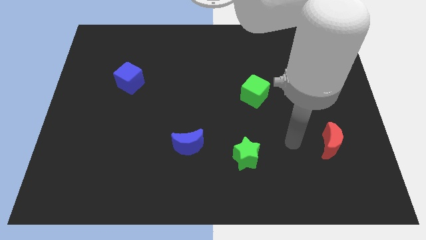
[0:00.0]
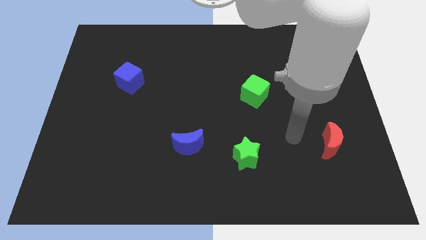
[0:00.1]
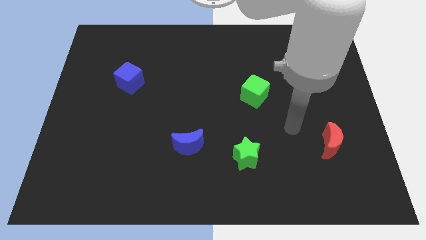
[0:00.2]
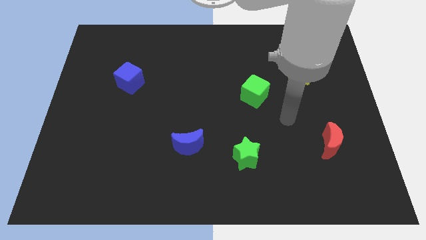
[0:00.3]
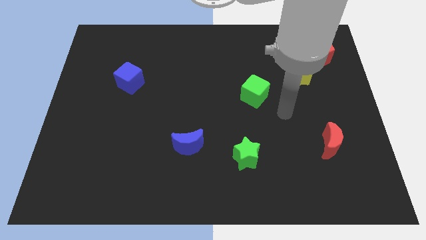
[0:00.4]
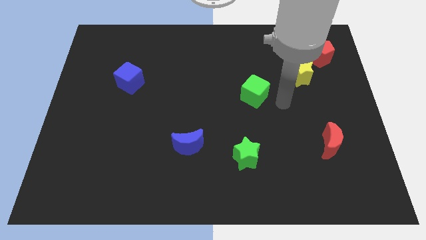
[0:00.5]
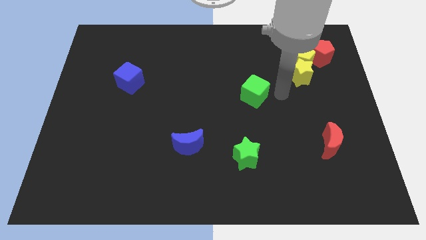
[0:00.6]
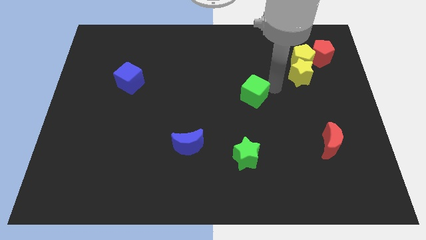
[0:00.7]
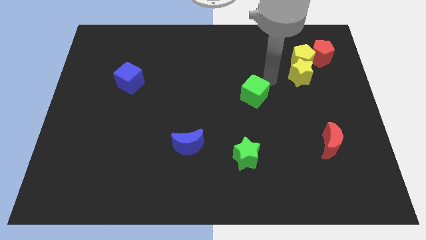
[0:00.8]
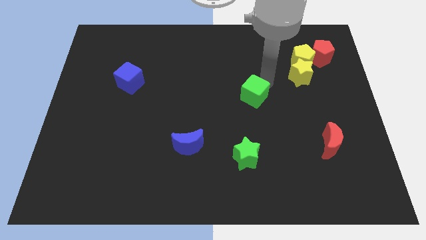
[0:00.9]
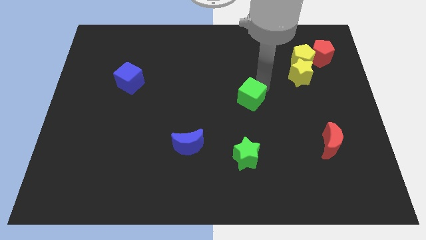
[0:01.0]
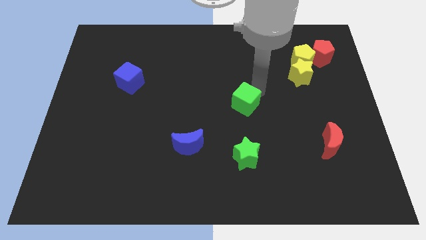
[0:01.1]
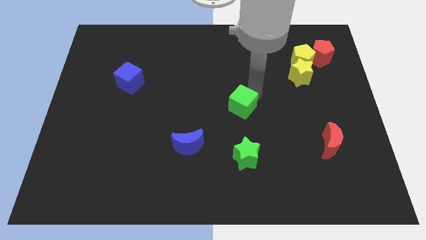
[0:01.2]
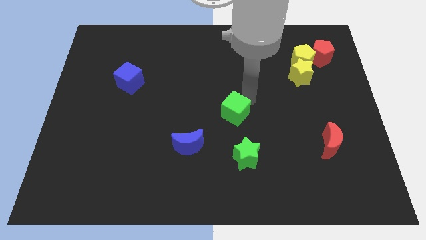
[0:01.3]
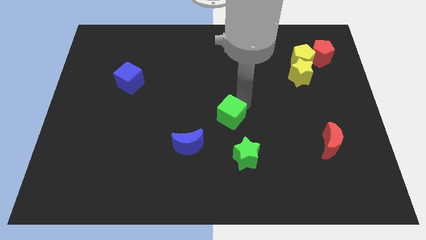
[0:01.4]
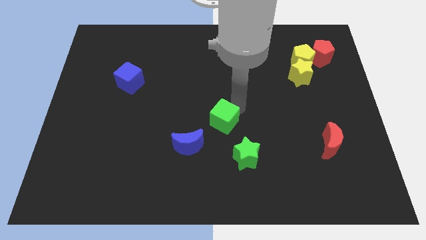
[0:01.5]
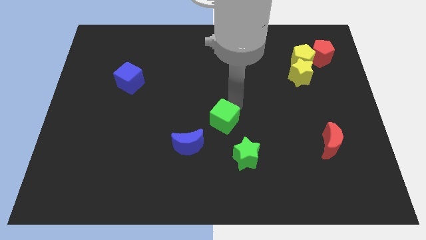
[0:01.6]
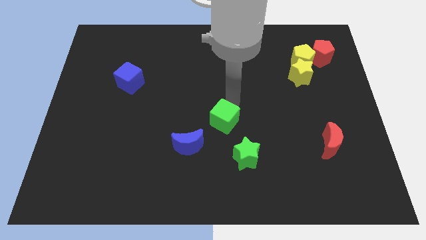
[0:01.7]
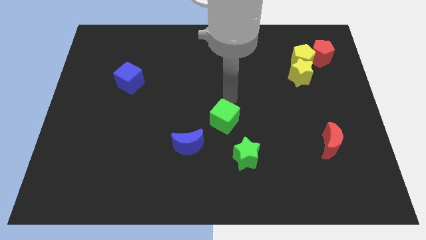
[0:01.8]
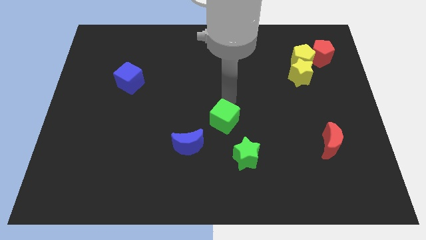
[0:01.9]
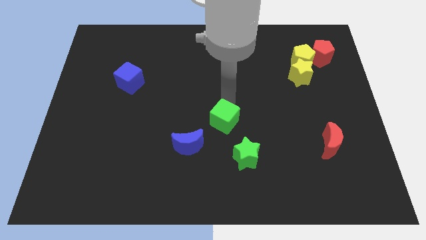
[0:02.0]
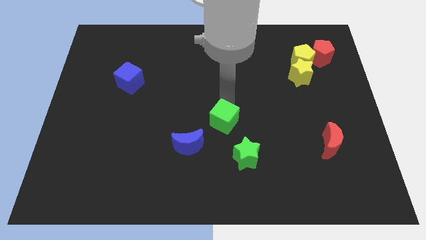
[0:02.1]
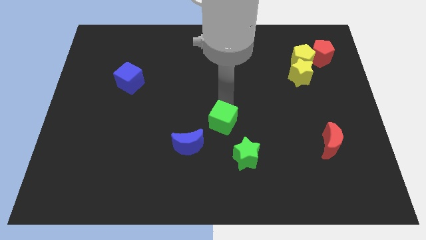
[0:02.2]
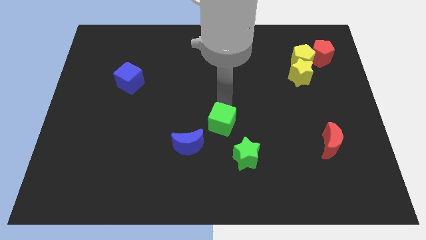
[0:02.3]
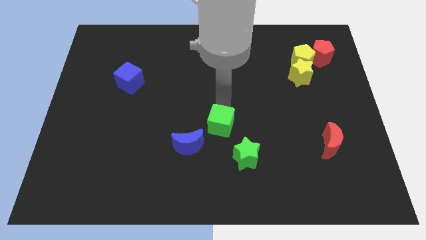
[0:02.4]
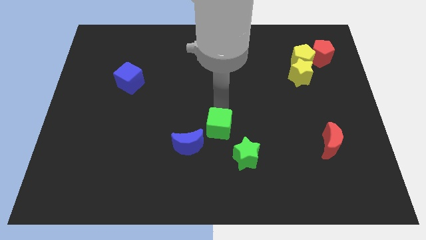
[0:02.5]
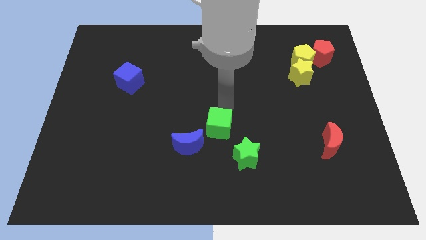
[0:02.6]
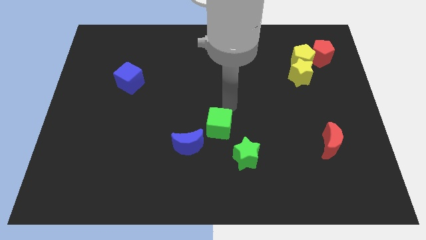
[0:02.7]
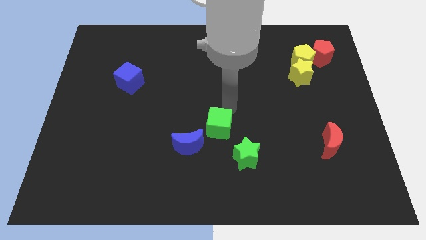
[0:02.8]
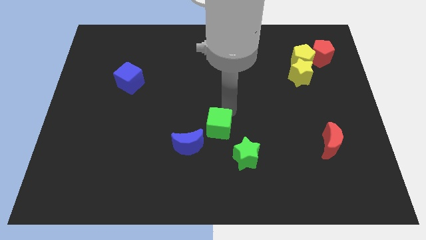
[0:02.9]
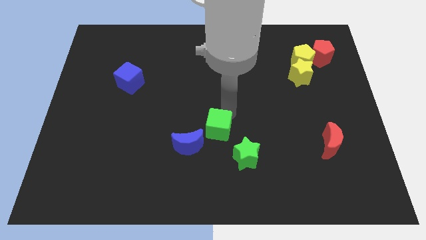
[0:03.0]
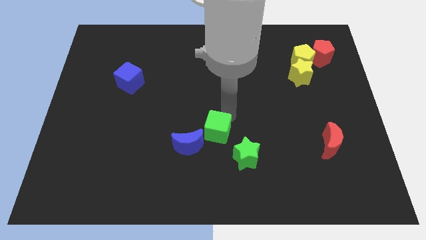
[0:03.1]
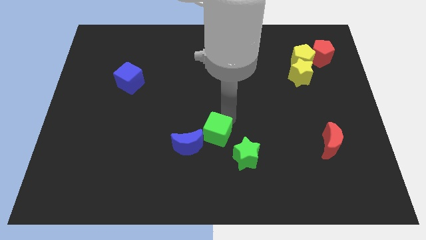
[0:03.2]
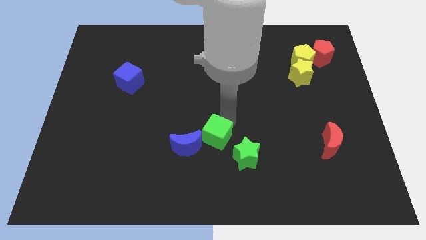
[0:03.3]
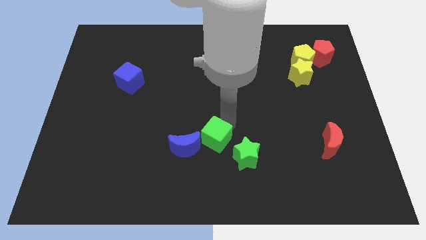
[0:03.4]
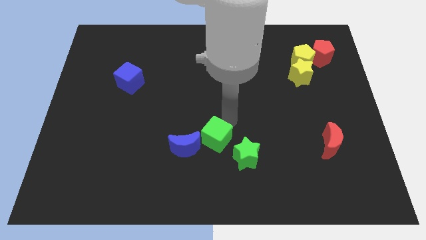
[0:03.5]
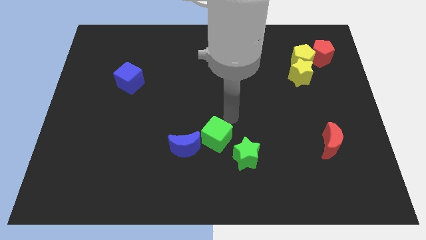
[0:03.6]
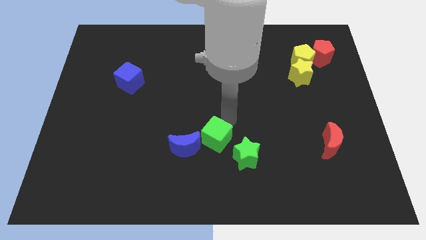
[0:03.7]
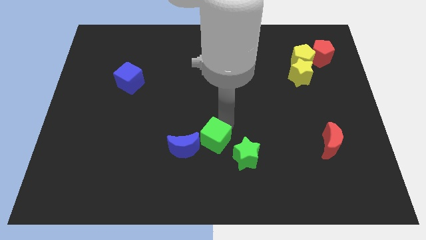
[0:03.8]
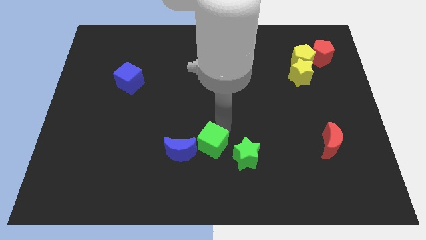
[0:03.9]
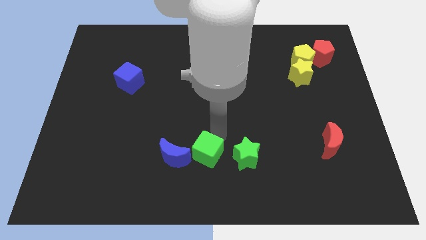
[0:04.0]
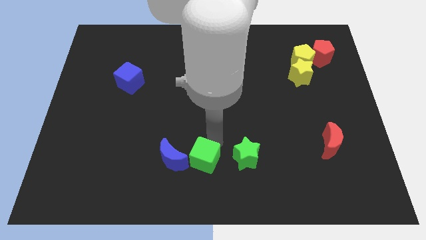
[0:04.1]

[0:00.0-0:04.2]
slide the green cube down and to the left

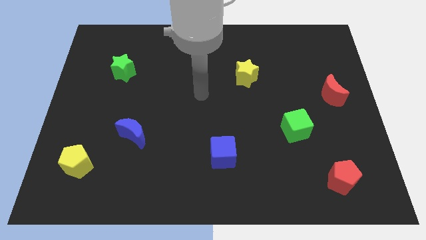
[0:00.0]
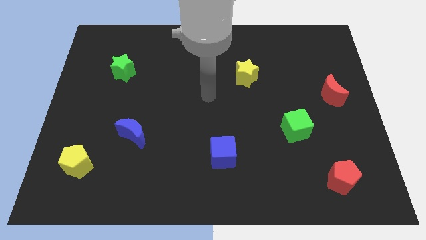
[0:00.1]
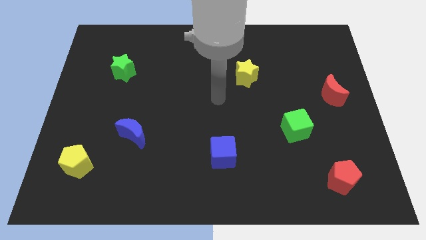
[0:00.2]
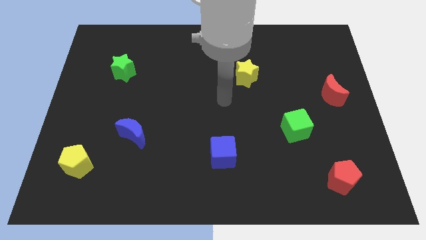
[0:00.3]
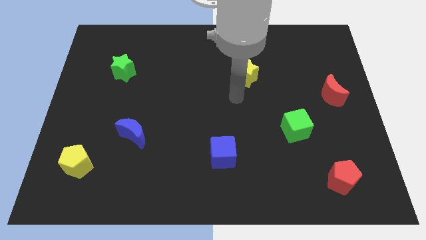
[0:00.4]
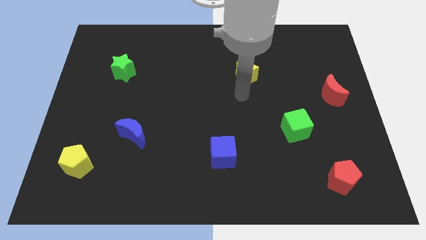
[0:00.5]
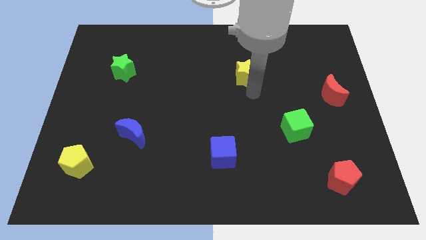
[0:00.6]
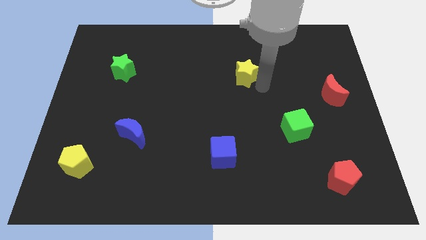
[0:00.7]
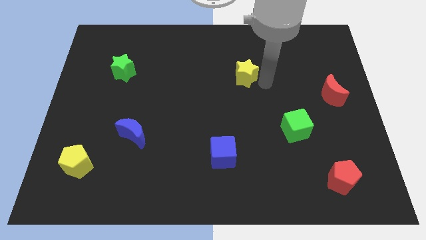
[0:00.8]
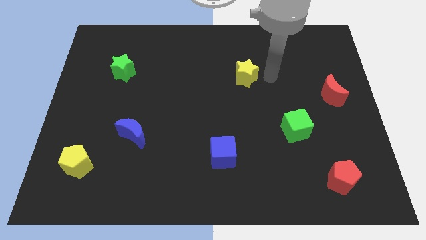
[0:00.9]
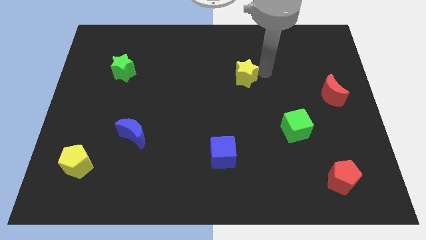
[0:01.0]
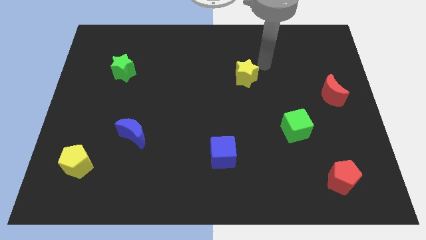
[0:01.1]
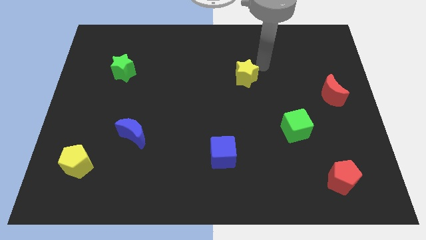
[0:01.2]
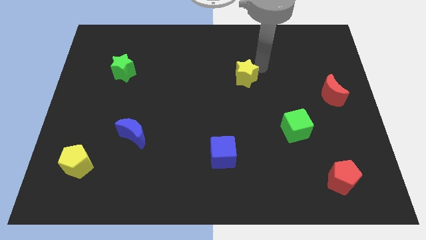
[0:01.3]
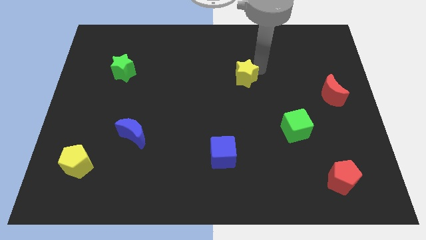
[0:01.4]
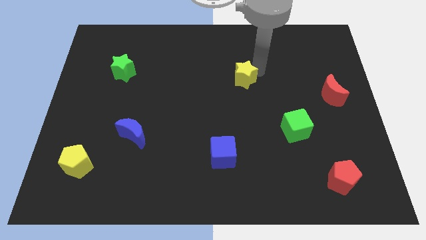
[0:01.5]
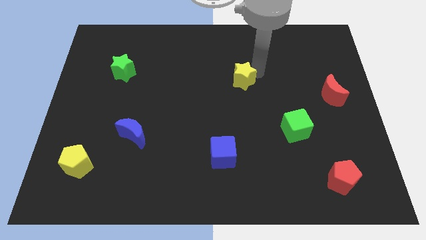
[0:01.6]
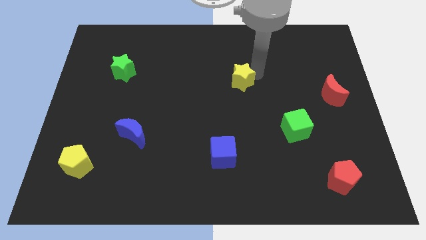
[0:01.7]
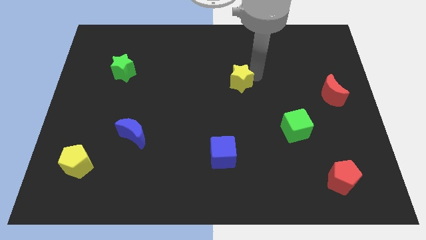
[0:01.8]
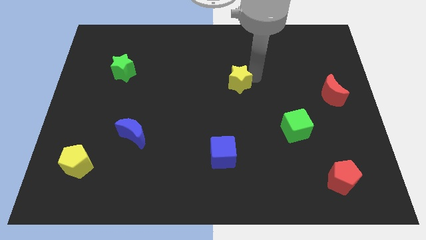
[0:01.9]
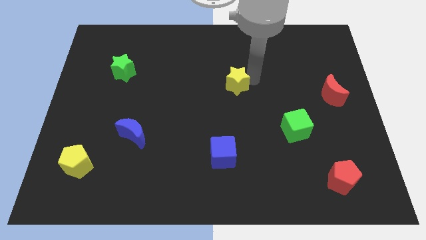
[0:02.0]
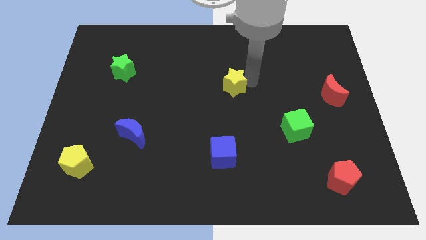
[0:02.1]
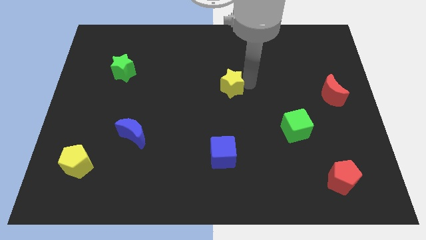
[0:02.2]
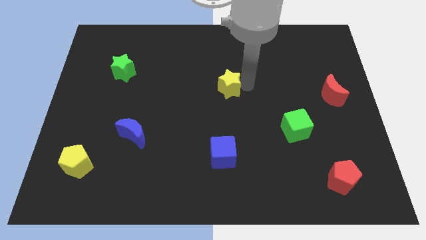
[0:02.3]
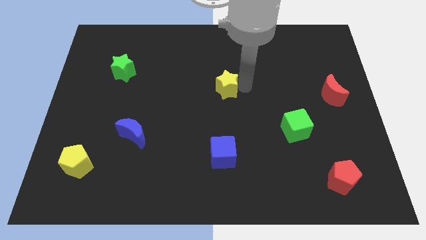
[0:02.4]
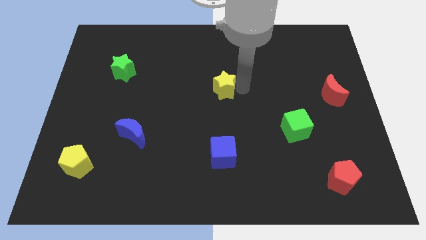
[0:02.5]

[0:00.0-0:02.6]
move the yellow star diagonally down and left a little bit

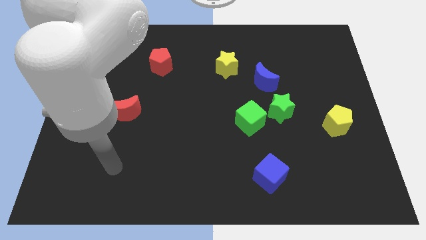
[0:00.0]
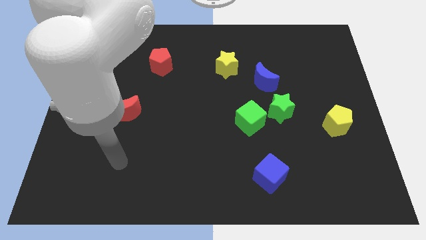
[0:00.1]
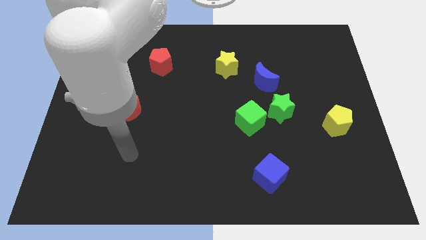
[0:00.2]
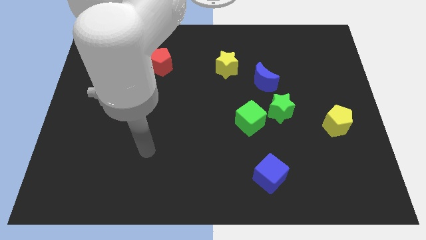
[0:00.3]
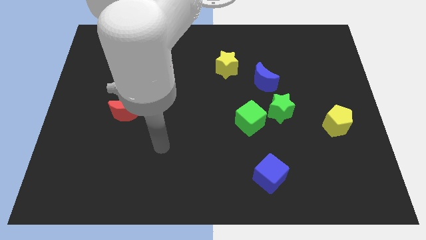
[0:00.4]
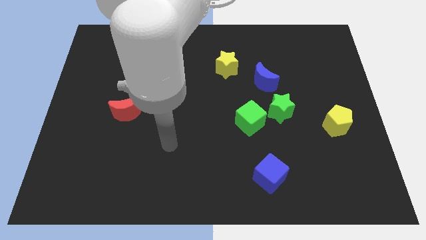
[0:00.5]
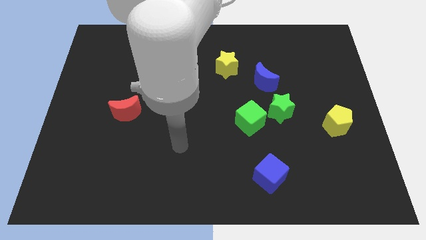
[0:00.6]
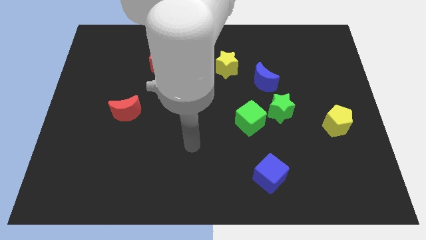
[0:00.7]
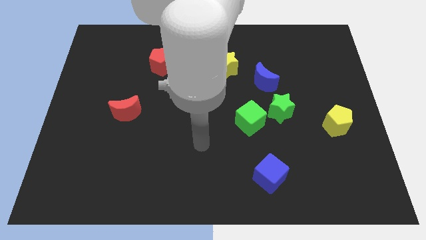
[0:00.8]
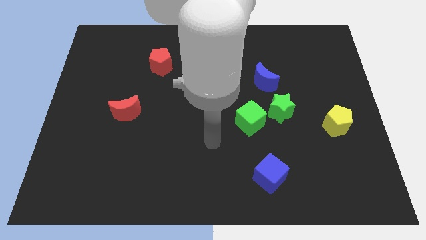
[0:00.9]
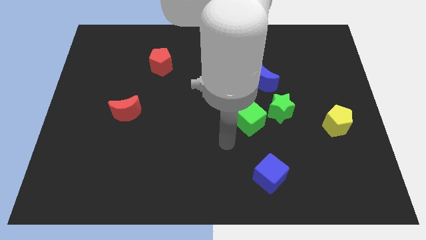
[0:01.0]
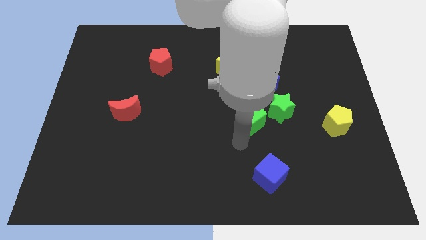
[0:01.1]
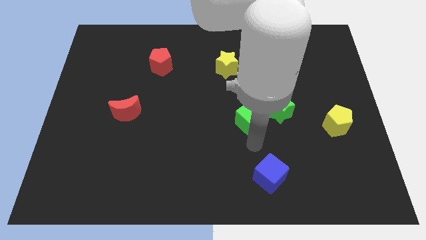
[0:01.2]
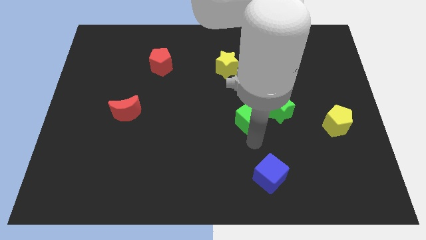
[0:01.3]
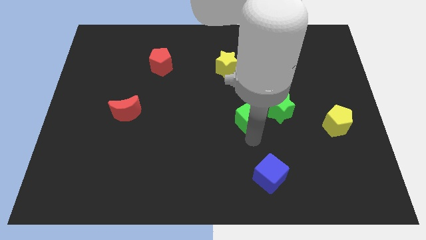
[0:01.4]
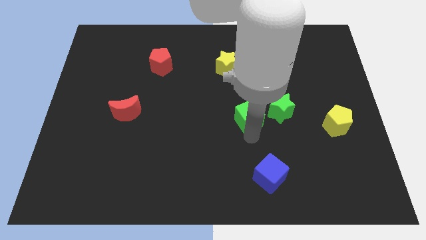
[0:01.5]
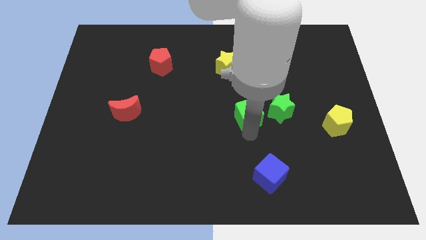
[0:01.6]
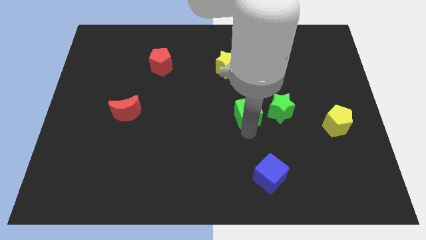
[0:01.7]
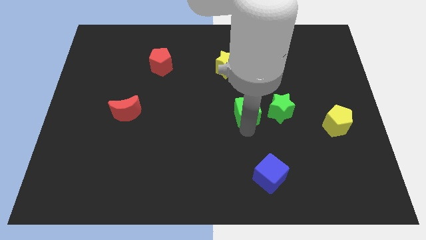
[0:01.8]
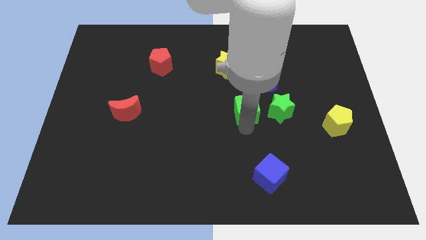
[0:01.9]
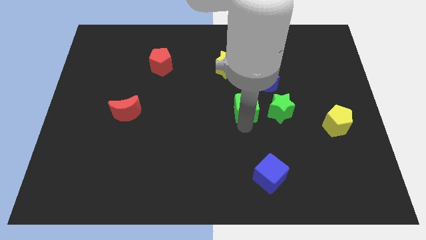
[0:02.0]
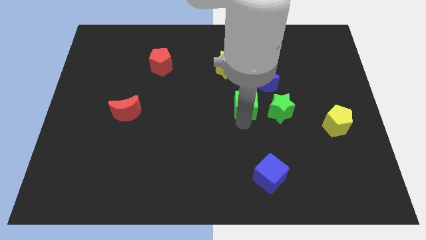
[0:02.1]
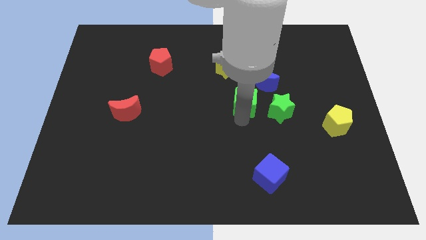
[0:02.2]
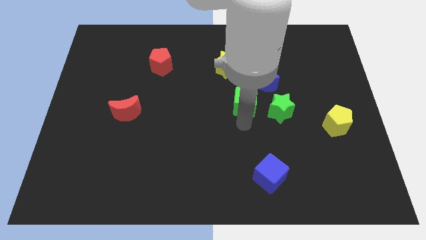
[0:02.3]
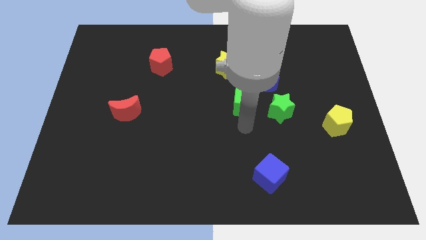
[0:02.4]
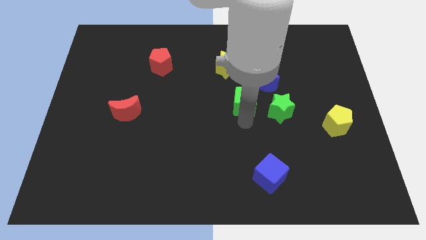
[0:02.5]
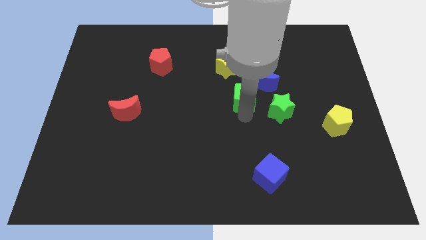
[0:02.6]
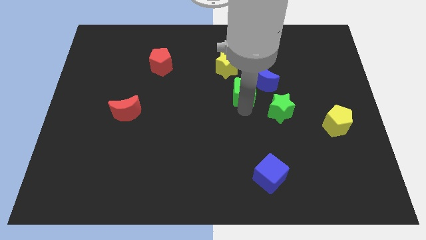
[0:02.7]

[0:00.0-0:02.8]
slightly move the green cube up
